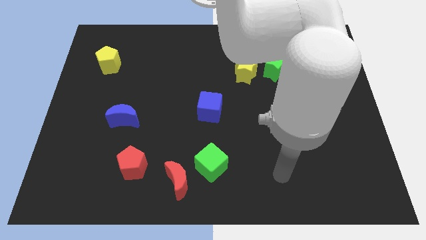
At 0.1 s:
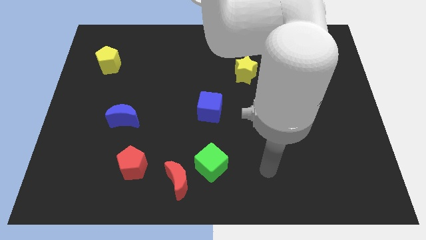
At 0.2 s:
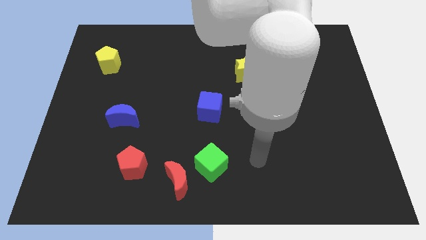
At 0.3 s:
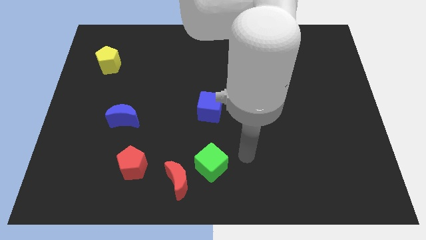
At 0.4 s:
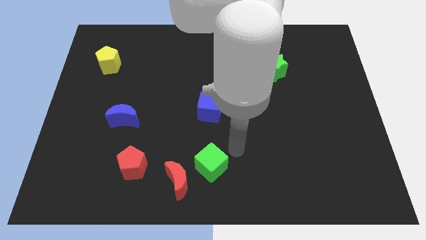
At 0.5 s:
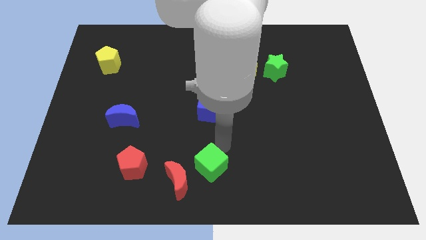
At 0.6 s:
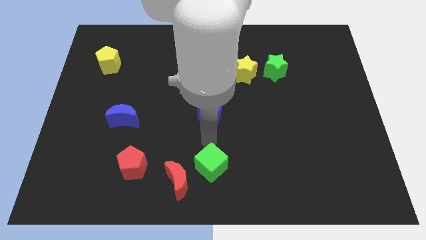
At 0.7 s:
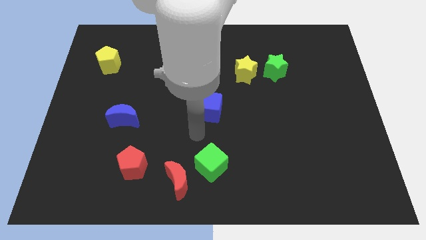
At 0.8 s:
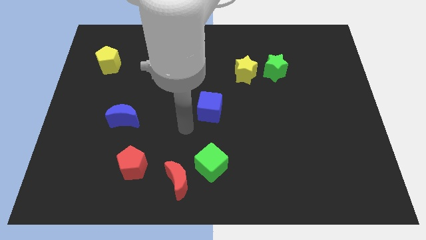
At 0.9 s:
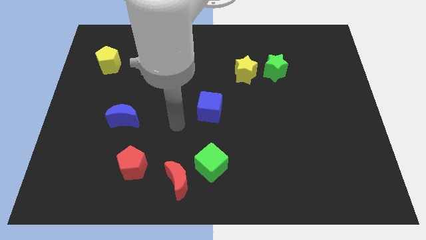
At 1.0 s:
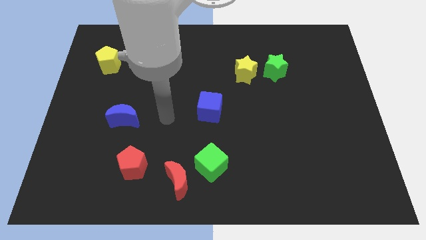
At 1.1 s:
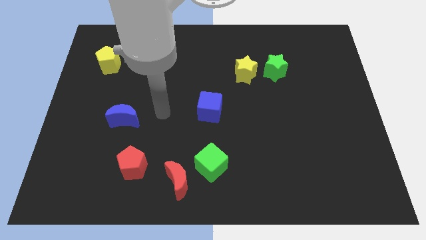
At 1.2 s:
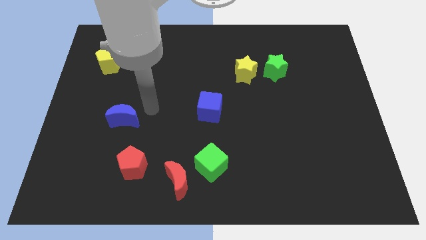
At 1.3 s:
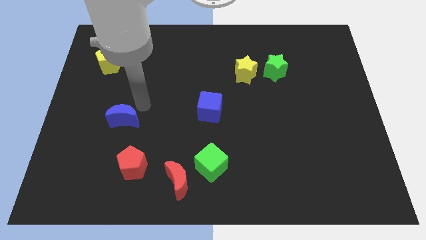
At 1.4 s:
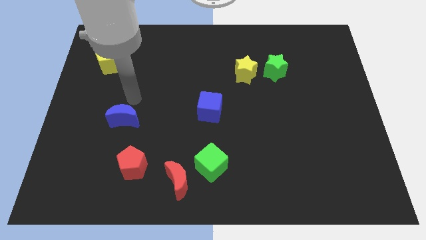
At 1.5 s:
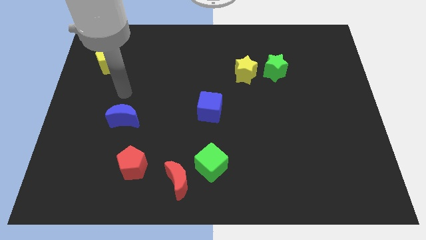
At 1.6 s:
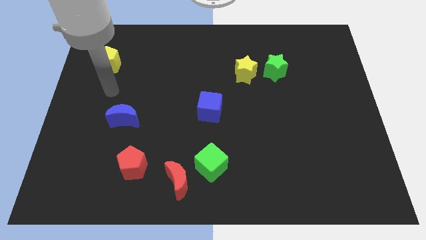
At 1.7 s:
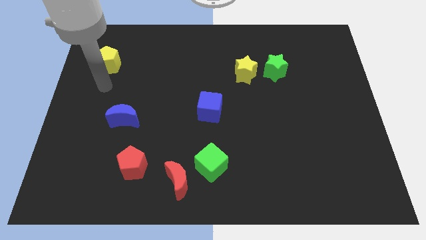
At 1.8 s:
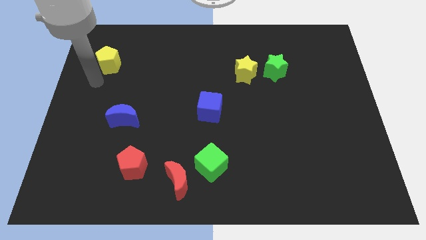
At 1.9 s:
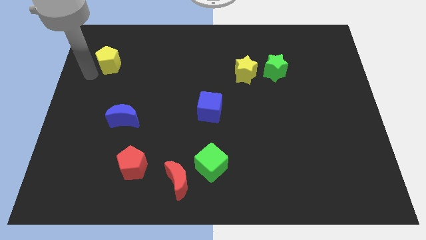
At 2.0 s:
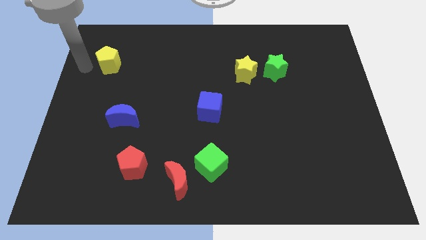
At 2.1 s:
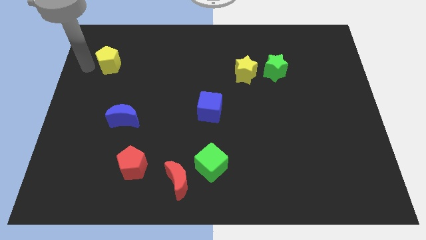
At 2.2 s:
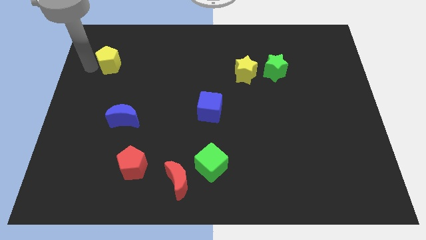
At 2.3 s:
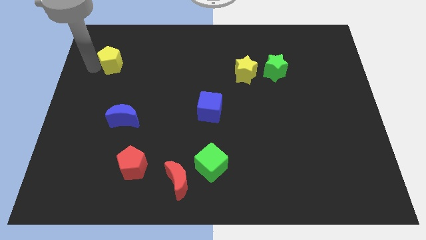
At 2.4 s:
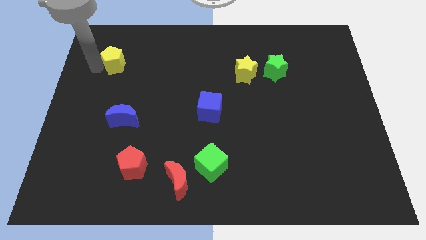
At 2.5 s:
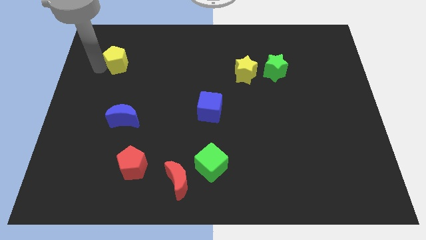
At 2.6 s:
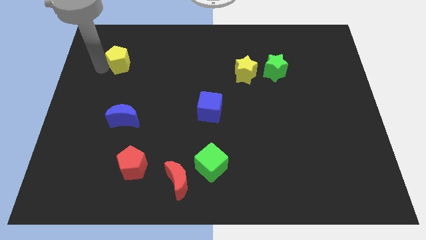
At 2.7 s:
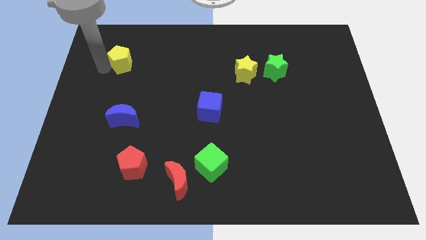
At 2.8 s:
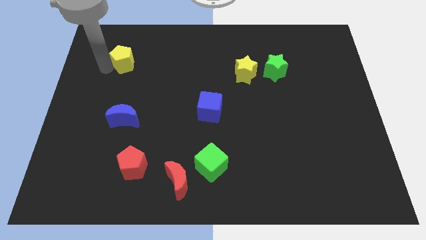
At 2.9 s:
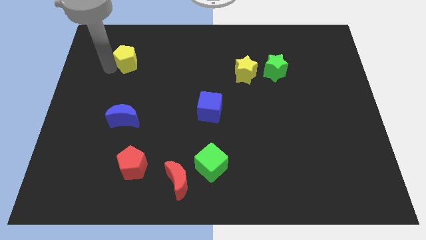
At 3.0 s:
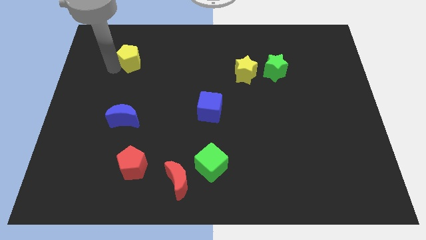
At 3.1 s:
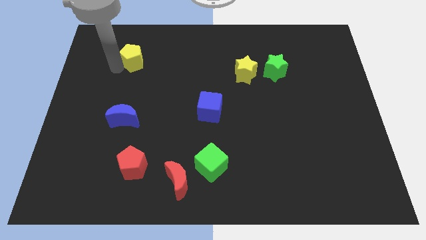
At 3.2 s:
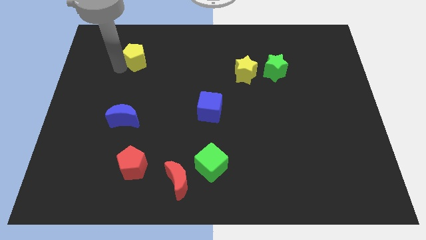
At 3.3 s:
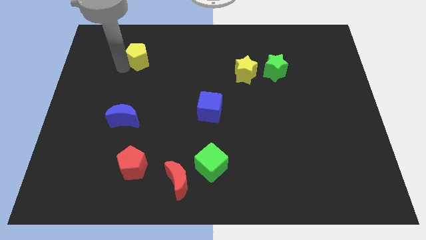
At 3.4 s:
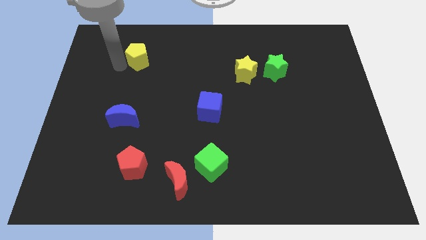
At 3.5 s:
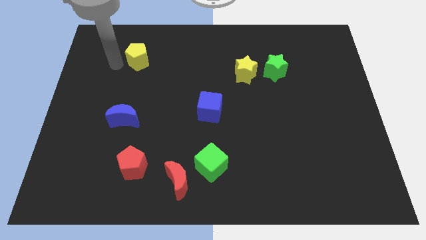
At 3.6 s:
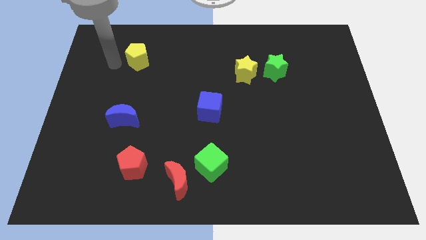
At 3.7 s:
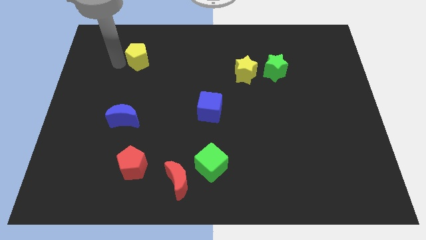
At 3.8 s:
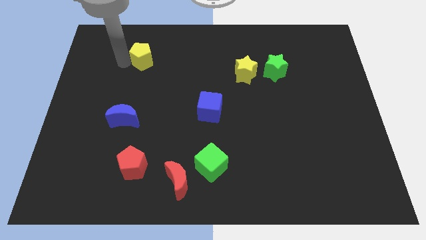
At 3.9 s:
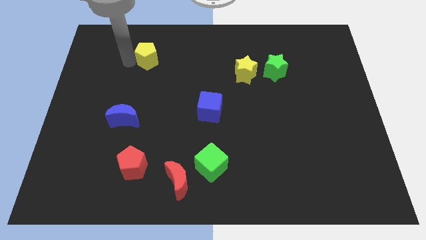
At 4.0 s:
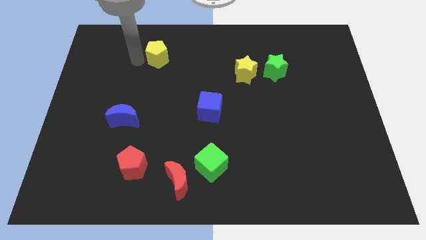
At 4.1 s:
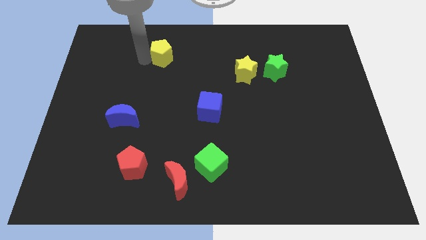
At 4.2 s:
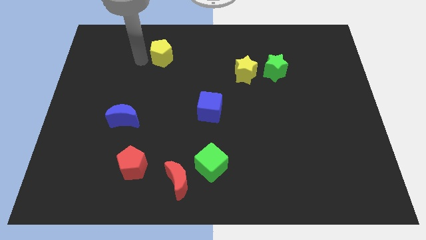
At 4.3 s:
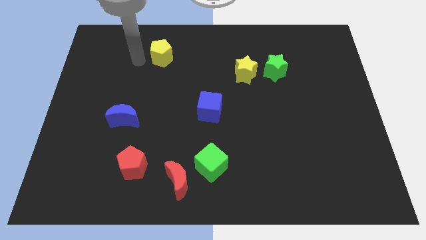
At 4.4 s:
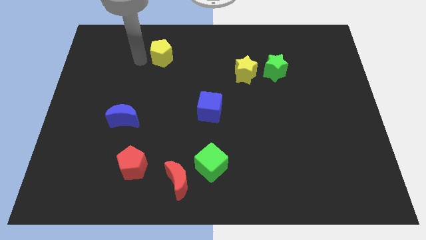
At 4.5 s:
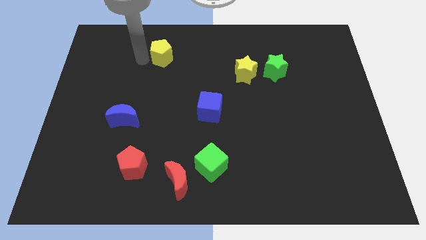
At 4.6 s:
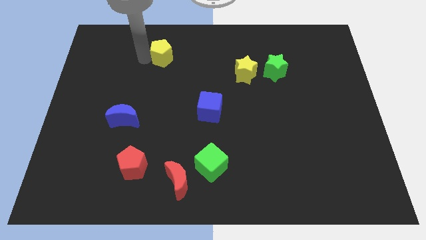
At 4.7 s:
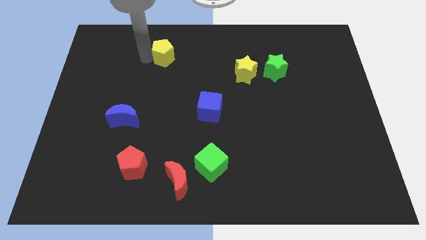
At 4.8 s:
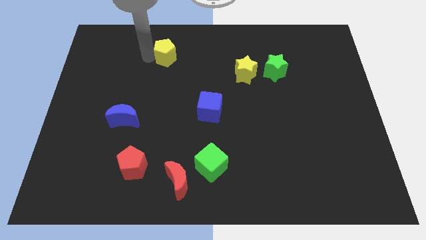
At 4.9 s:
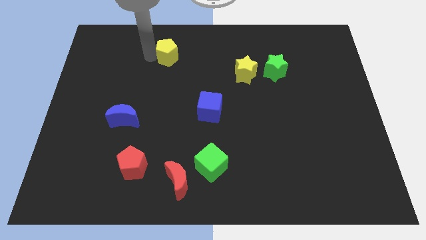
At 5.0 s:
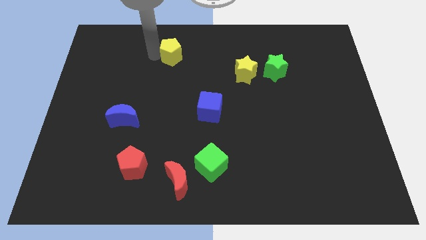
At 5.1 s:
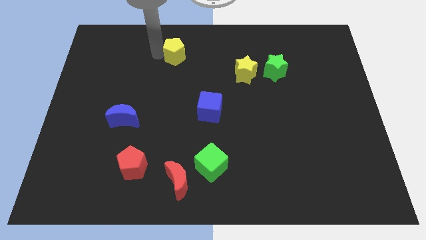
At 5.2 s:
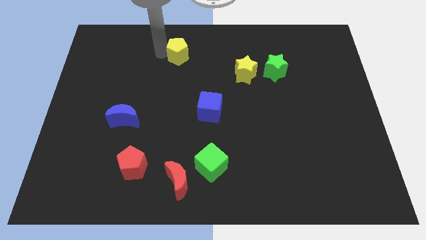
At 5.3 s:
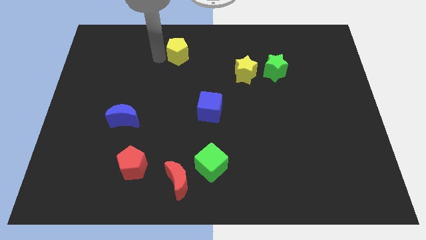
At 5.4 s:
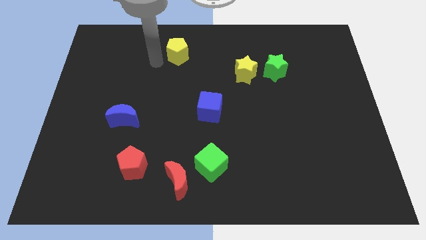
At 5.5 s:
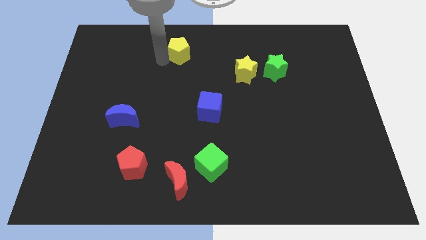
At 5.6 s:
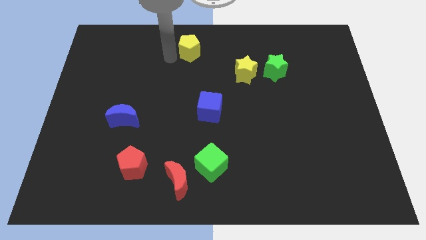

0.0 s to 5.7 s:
slide the yellow pentagon to the top side

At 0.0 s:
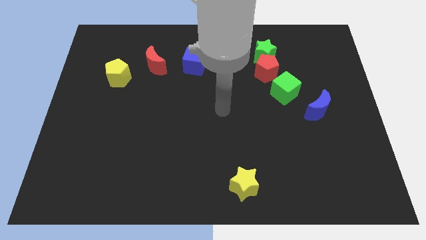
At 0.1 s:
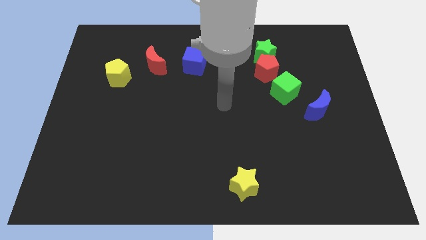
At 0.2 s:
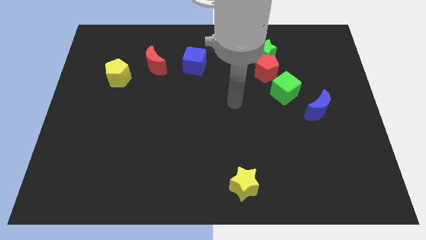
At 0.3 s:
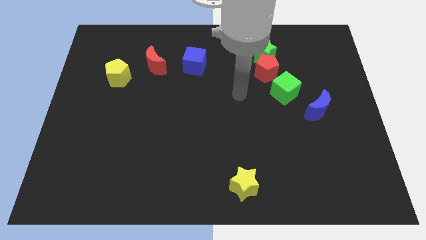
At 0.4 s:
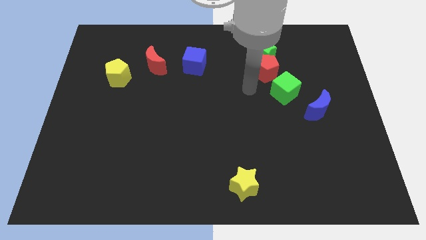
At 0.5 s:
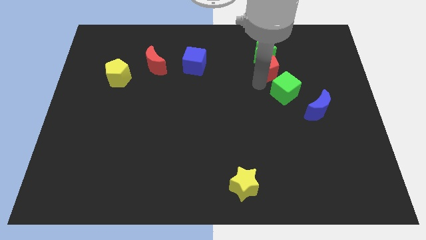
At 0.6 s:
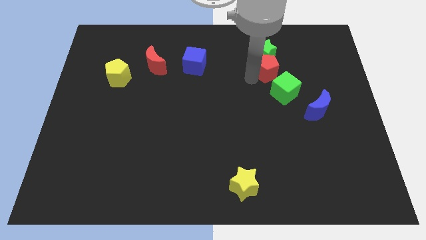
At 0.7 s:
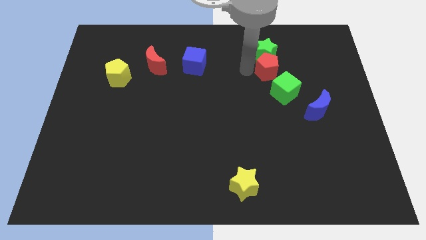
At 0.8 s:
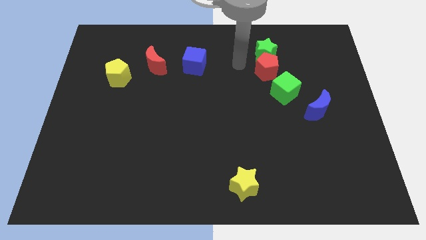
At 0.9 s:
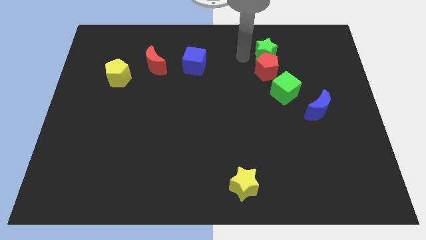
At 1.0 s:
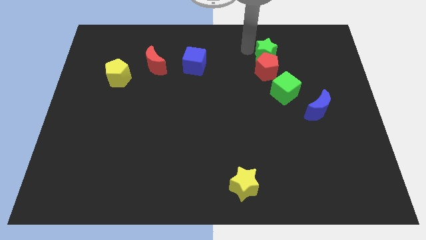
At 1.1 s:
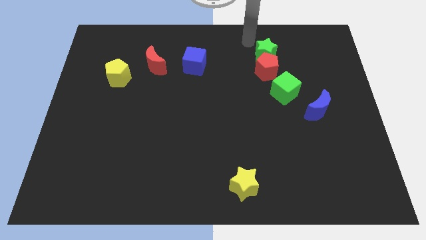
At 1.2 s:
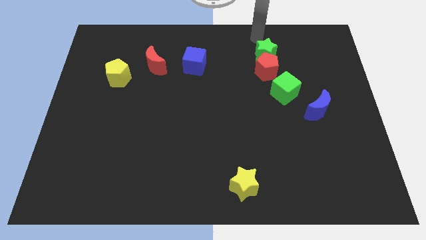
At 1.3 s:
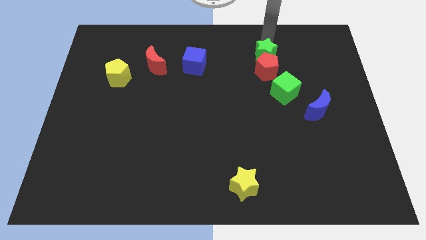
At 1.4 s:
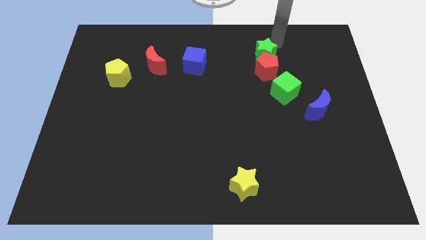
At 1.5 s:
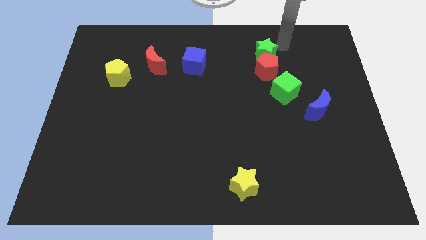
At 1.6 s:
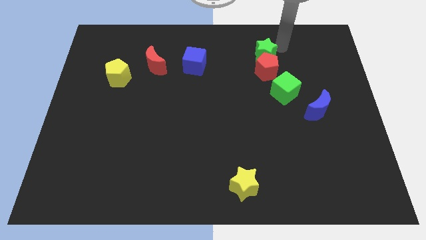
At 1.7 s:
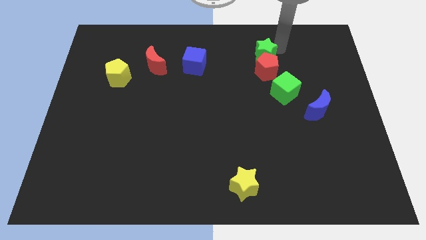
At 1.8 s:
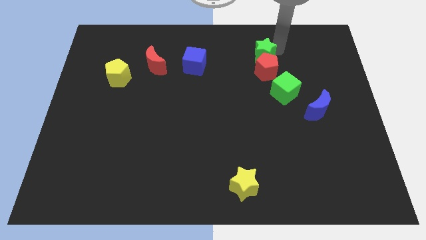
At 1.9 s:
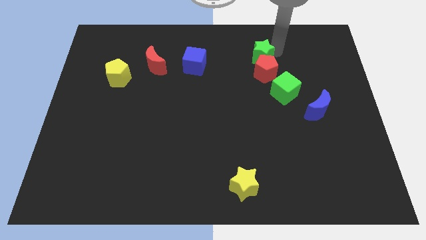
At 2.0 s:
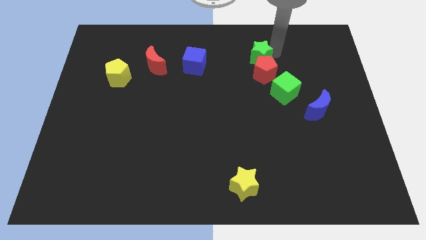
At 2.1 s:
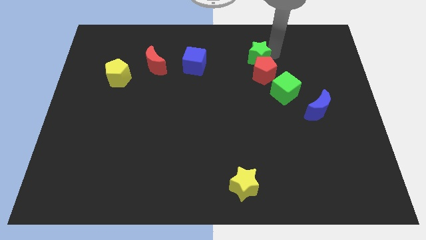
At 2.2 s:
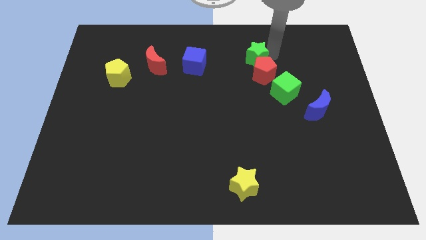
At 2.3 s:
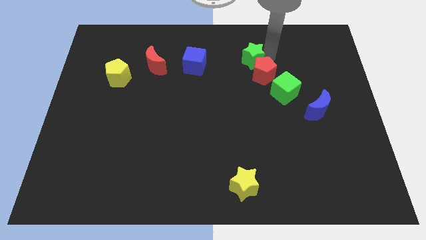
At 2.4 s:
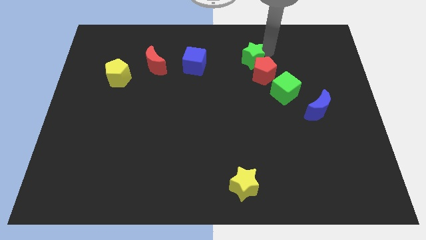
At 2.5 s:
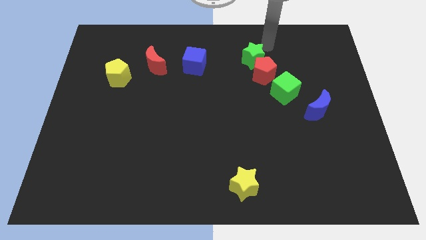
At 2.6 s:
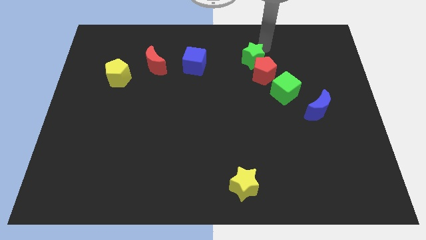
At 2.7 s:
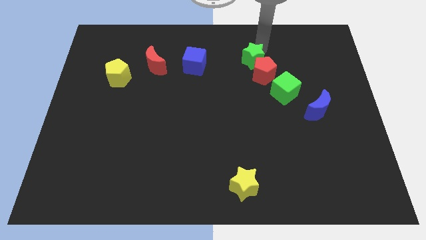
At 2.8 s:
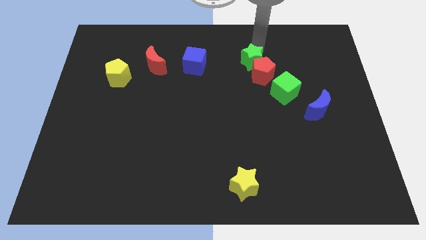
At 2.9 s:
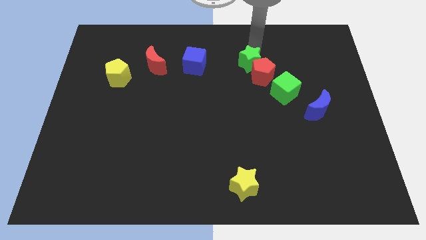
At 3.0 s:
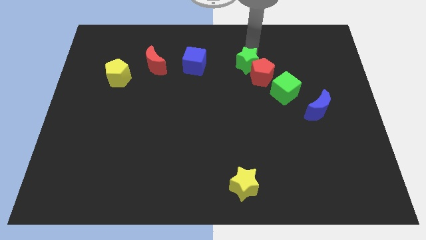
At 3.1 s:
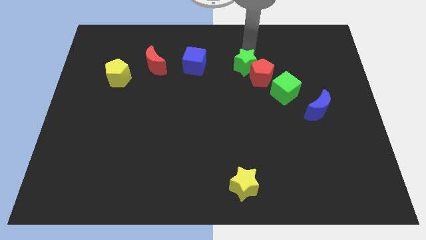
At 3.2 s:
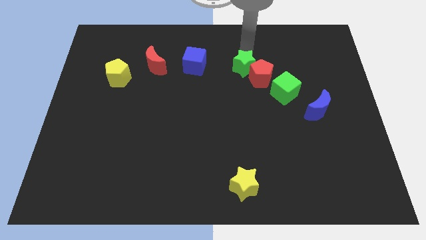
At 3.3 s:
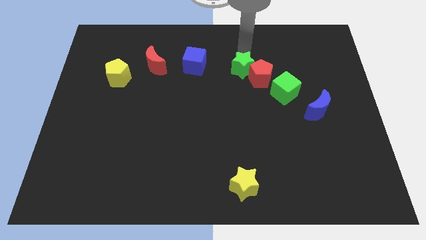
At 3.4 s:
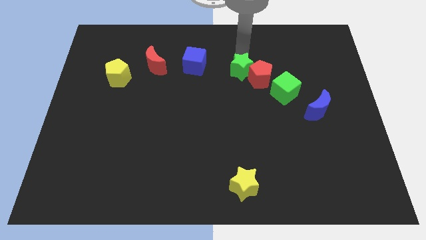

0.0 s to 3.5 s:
move the green star to the middle
